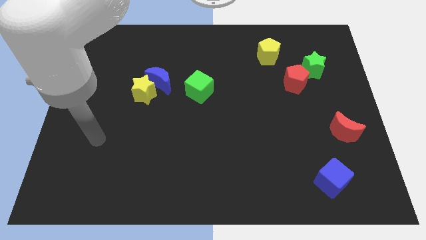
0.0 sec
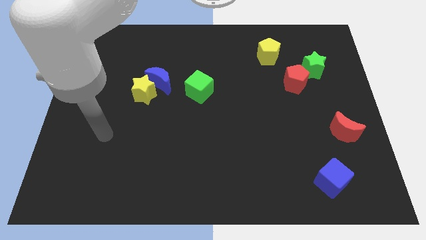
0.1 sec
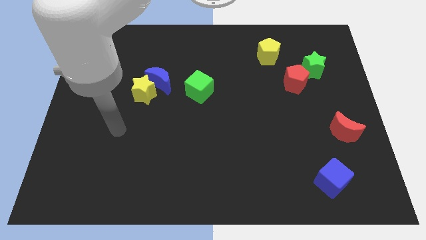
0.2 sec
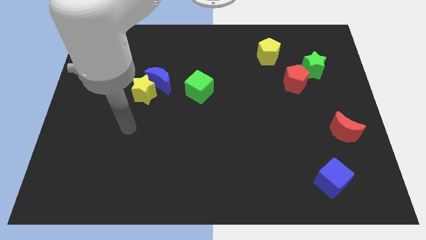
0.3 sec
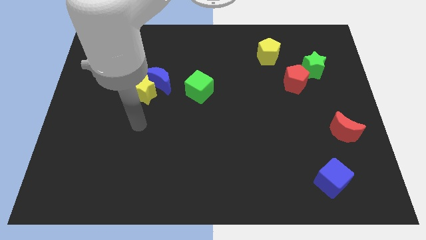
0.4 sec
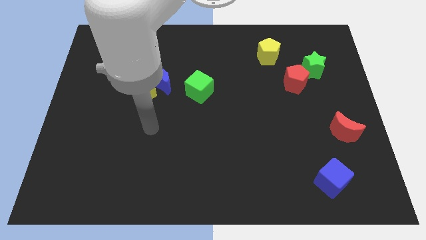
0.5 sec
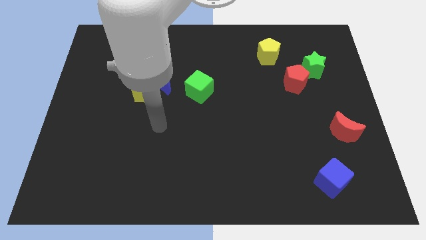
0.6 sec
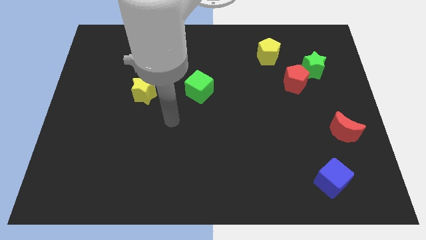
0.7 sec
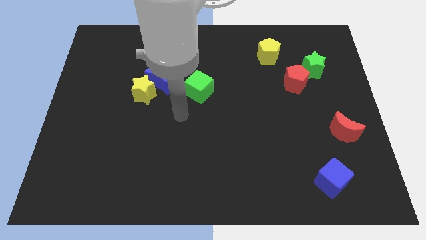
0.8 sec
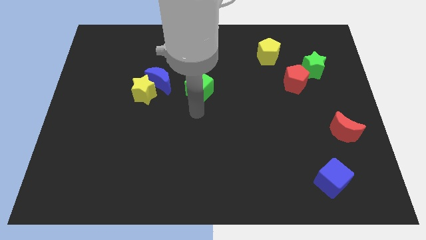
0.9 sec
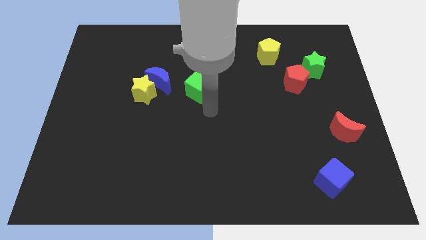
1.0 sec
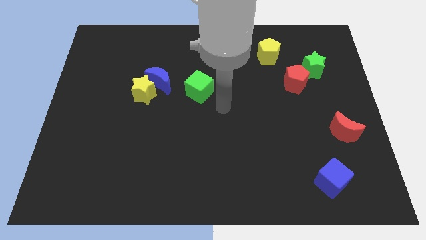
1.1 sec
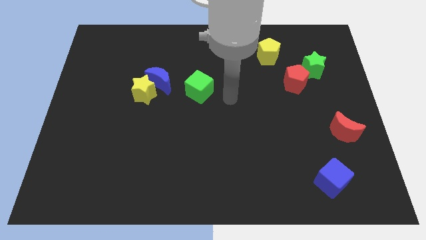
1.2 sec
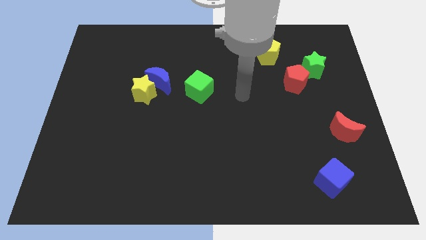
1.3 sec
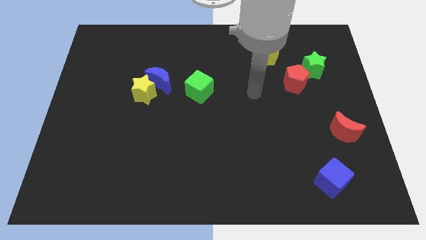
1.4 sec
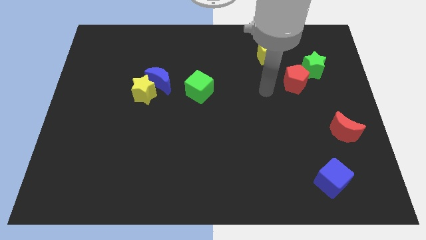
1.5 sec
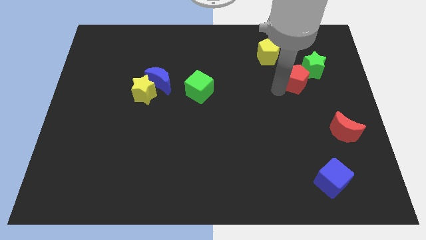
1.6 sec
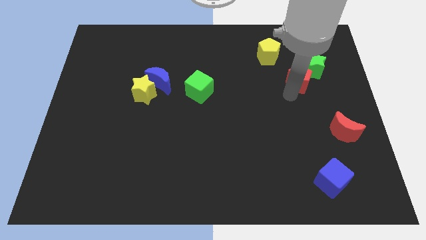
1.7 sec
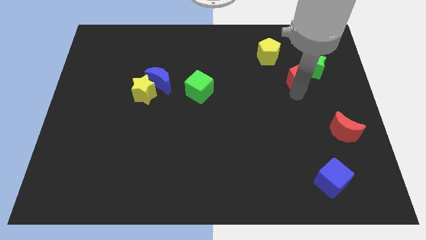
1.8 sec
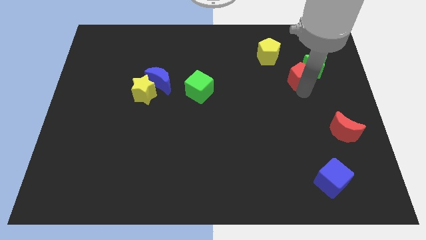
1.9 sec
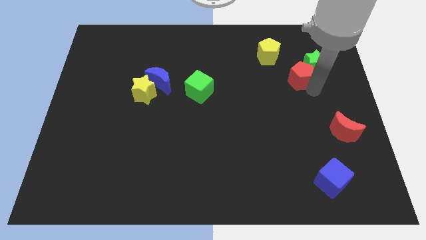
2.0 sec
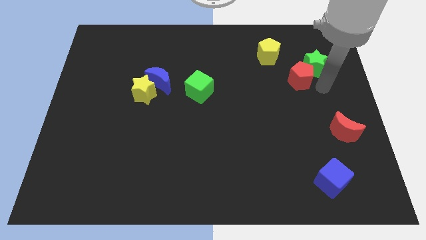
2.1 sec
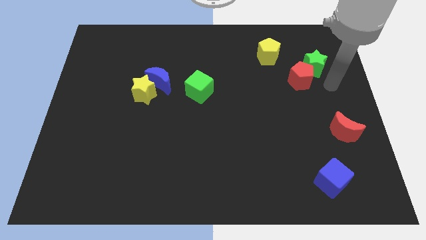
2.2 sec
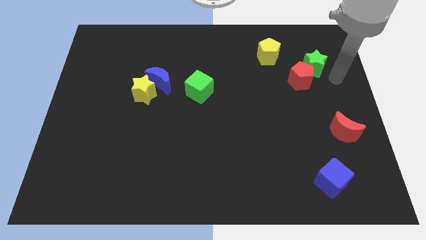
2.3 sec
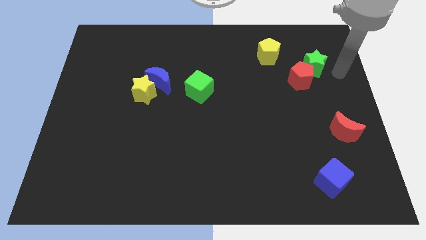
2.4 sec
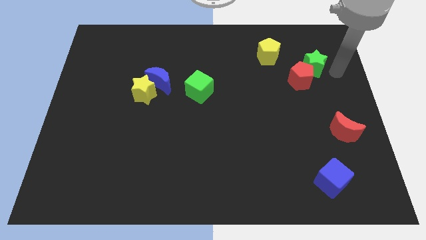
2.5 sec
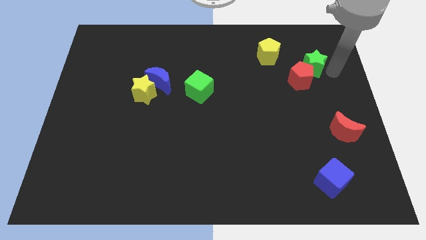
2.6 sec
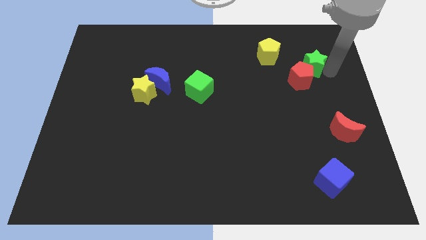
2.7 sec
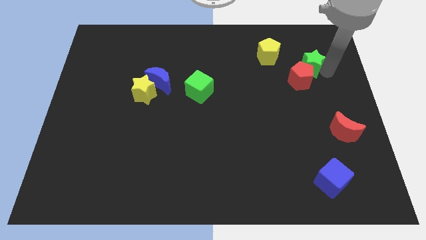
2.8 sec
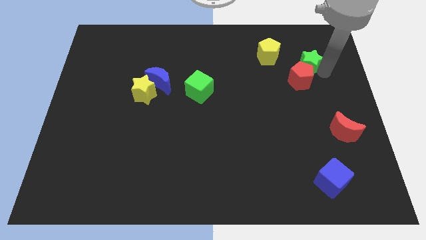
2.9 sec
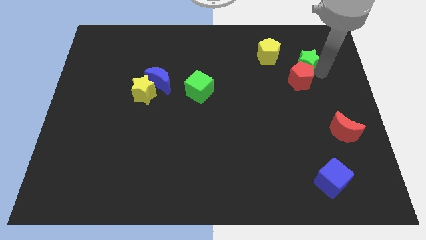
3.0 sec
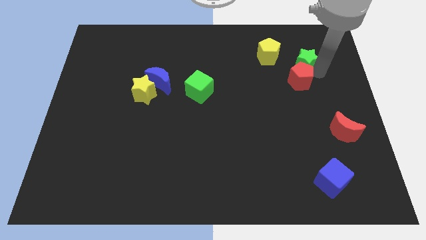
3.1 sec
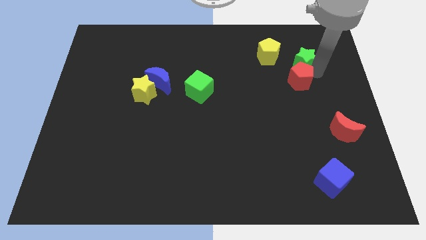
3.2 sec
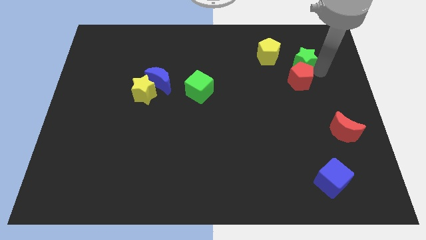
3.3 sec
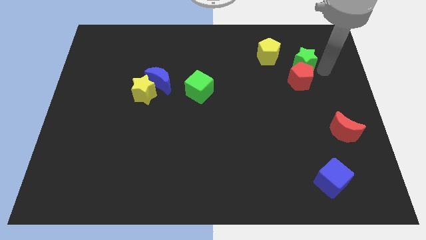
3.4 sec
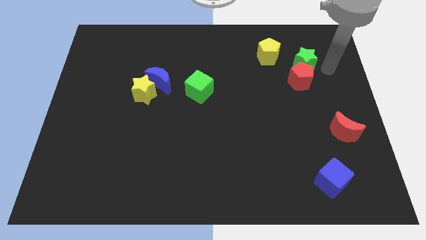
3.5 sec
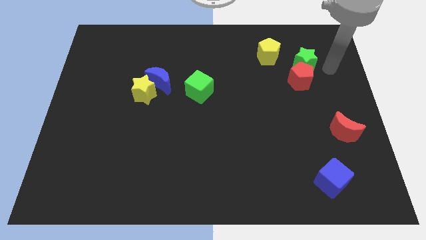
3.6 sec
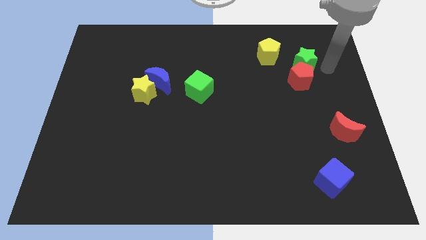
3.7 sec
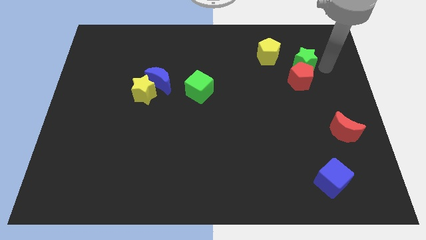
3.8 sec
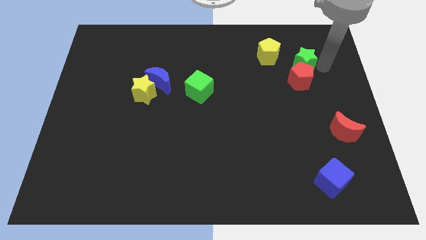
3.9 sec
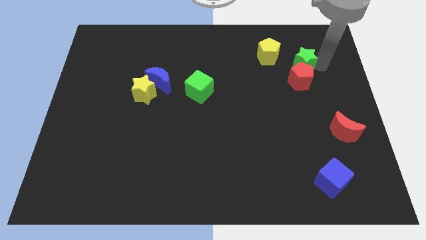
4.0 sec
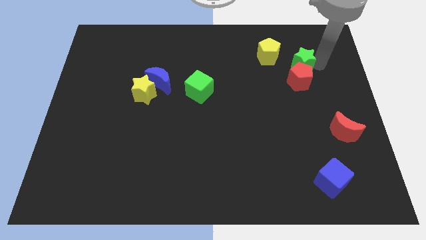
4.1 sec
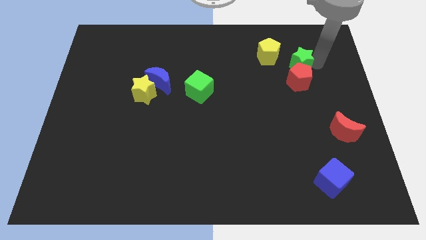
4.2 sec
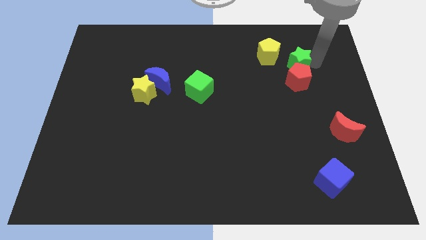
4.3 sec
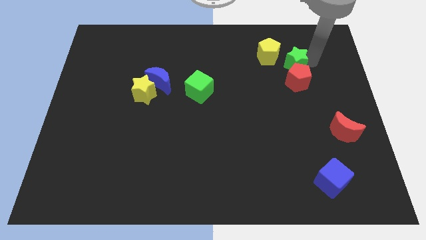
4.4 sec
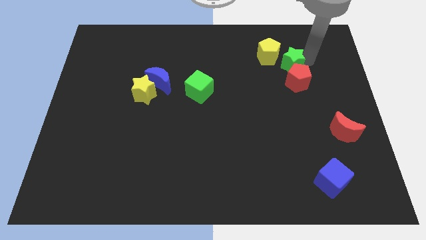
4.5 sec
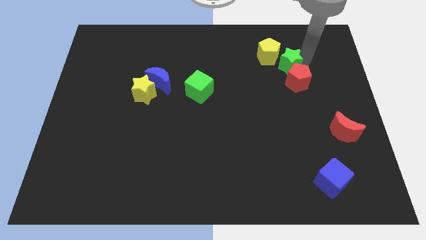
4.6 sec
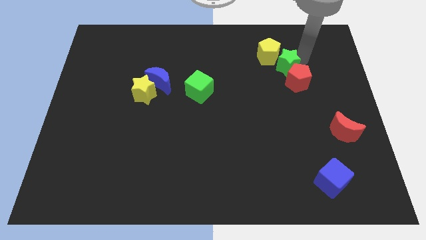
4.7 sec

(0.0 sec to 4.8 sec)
put the green star close to the yellow pentagon

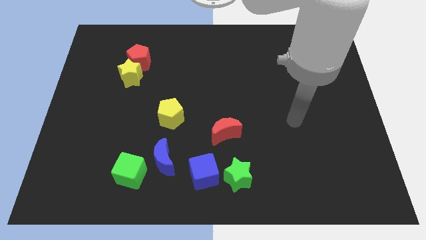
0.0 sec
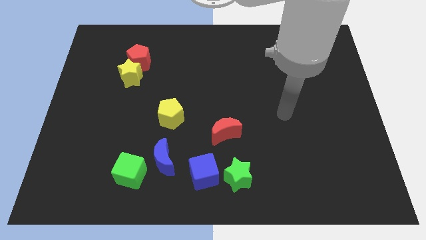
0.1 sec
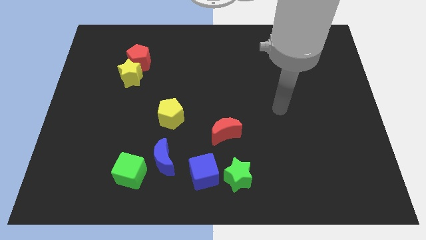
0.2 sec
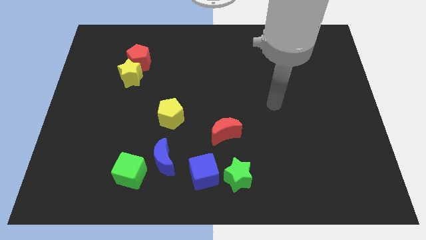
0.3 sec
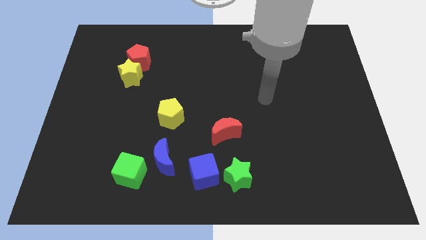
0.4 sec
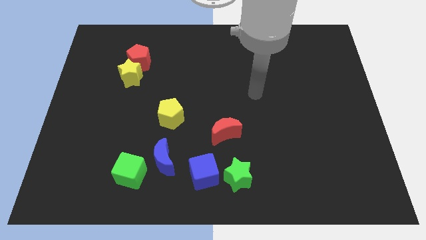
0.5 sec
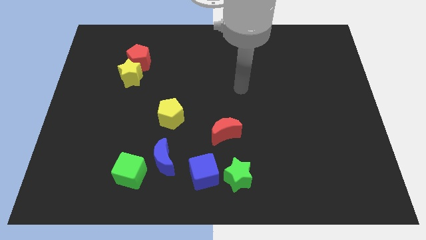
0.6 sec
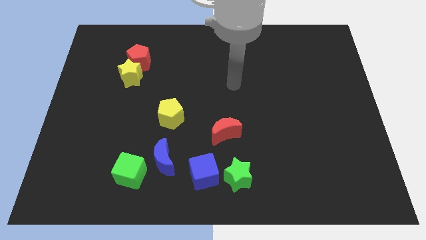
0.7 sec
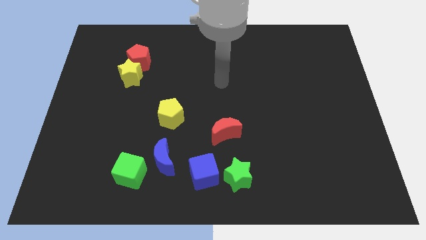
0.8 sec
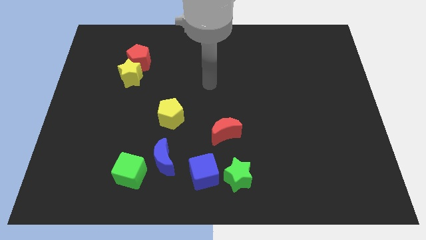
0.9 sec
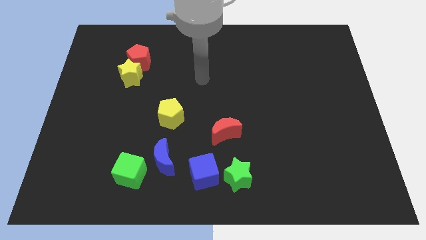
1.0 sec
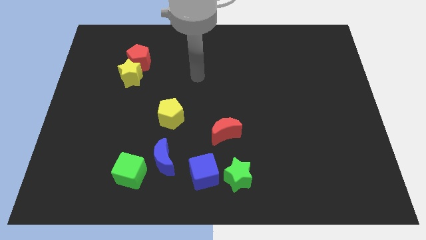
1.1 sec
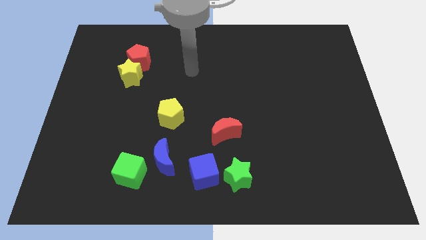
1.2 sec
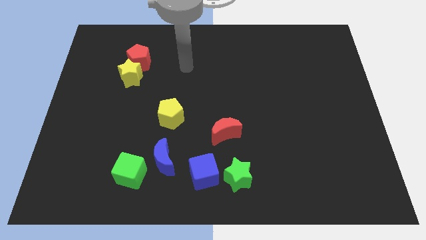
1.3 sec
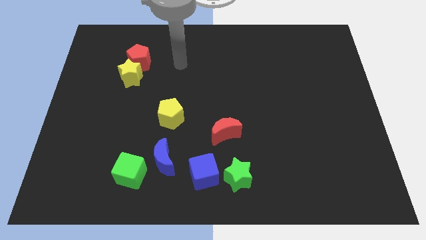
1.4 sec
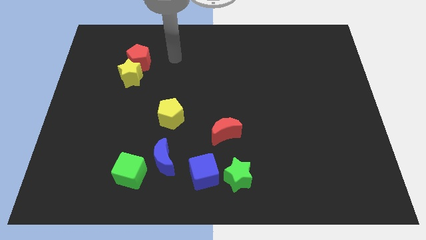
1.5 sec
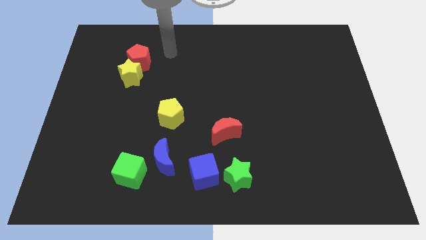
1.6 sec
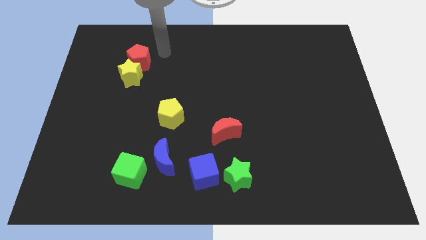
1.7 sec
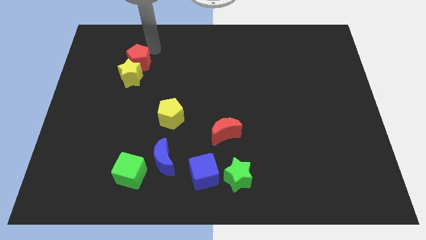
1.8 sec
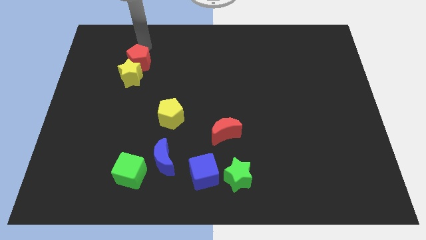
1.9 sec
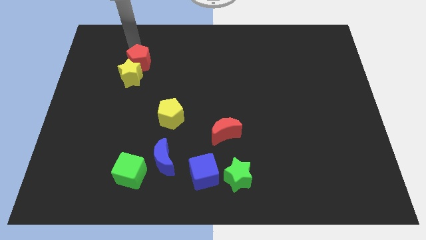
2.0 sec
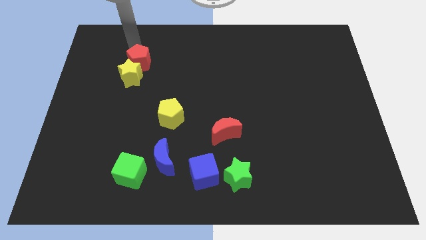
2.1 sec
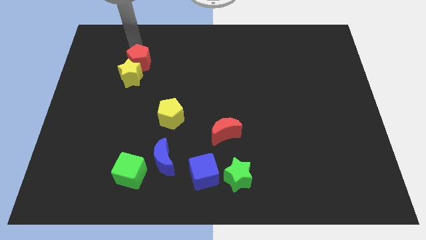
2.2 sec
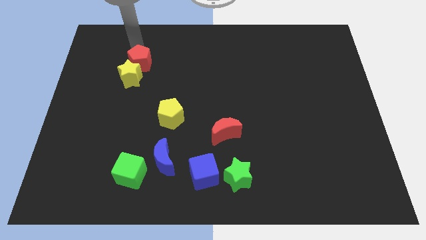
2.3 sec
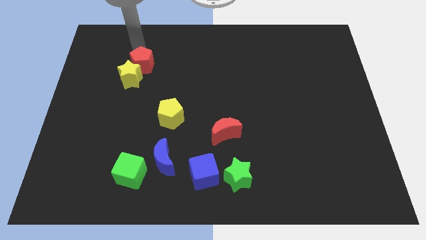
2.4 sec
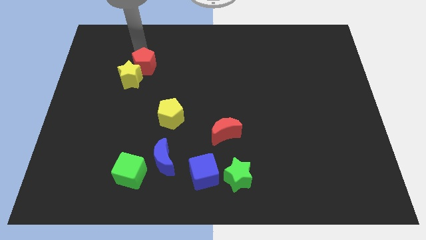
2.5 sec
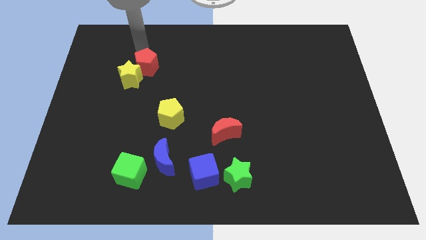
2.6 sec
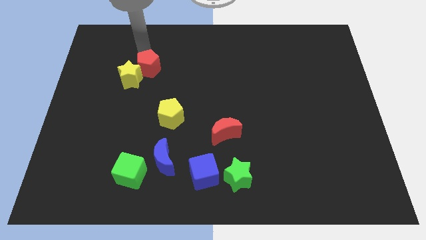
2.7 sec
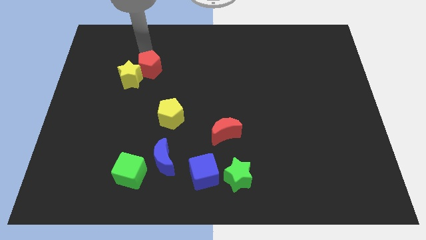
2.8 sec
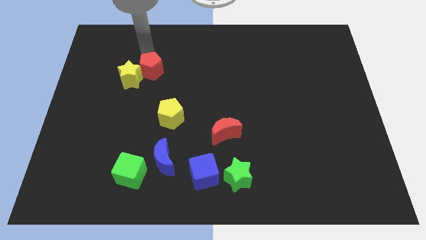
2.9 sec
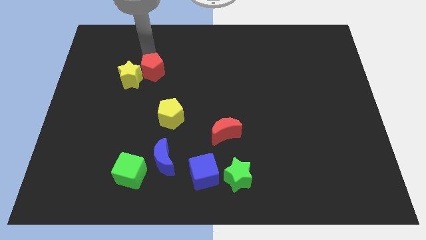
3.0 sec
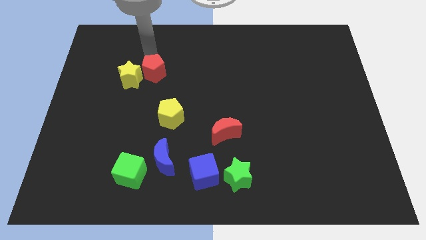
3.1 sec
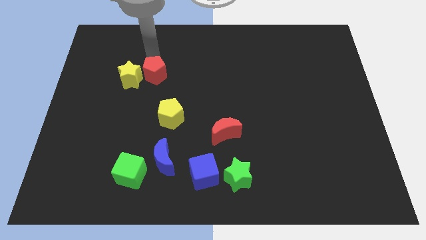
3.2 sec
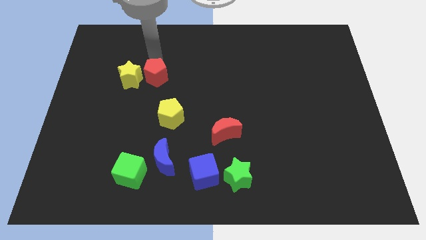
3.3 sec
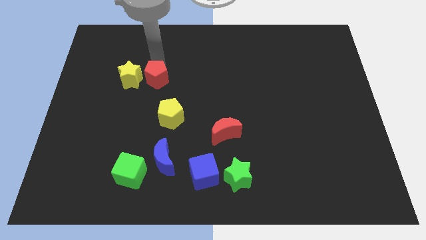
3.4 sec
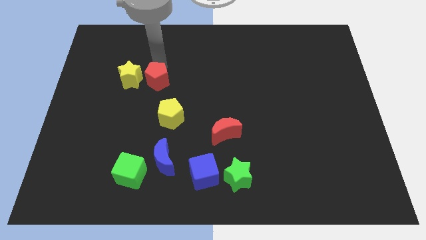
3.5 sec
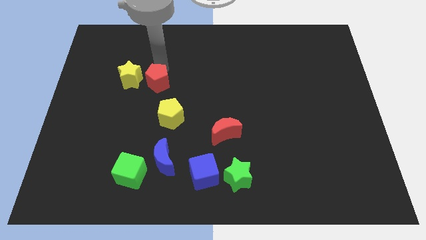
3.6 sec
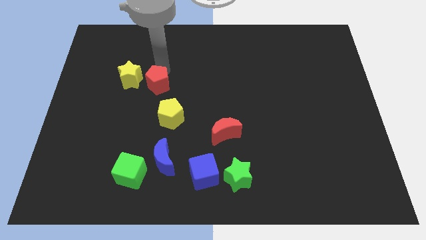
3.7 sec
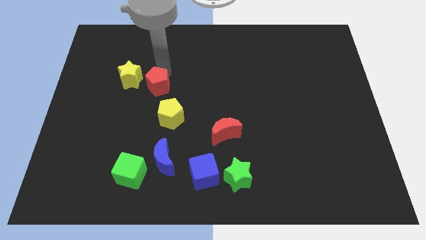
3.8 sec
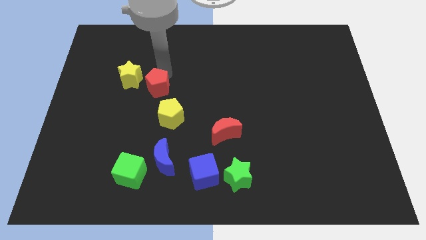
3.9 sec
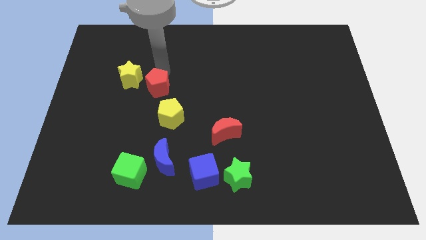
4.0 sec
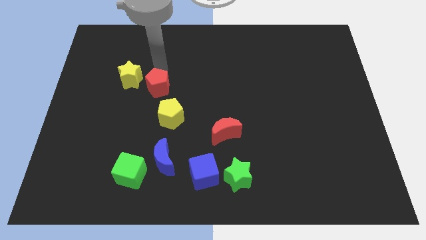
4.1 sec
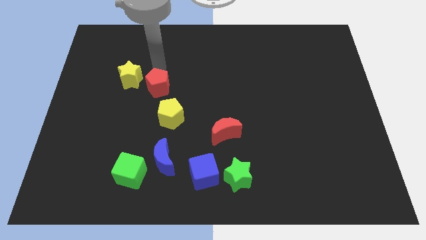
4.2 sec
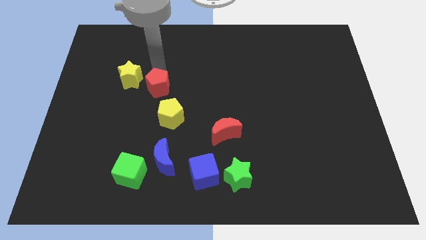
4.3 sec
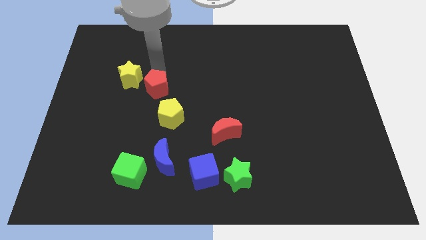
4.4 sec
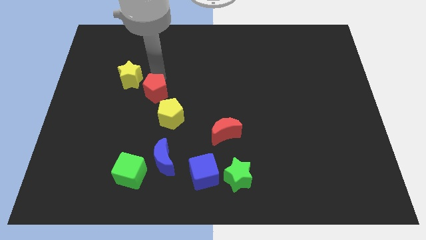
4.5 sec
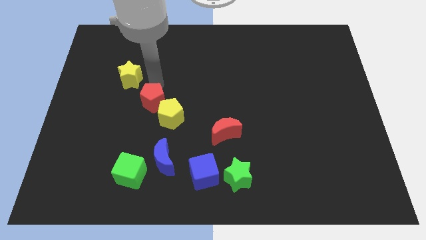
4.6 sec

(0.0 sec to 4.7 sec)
move the red pentagon towards the yellow pentagon
